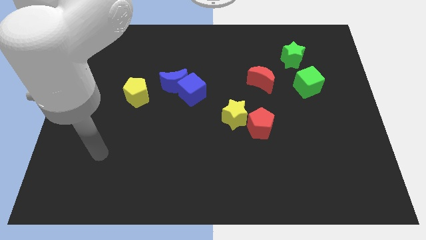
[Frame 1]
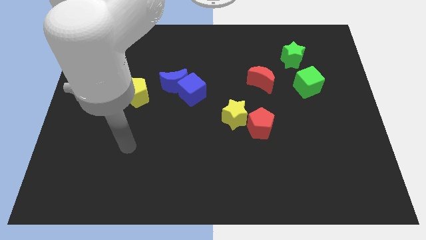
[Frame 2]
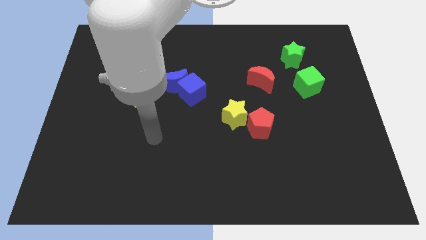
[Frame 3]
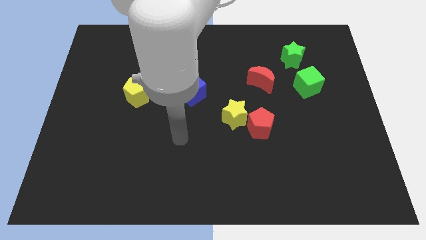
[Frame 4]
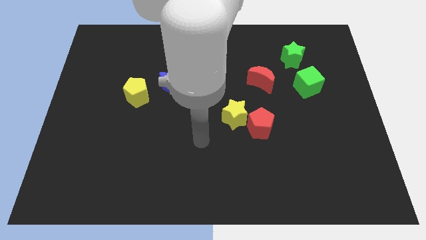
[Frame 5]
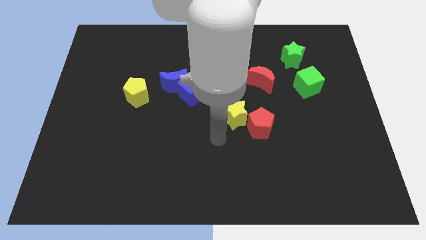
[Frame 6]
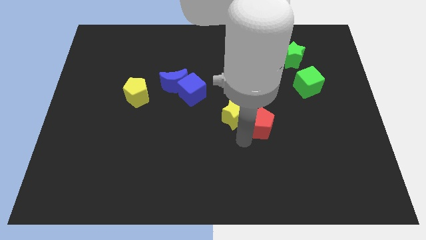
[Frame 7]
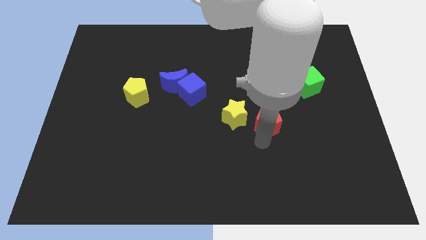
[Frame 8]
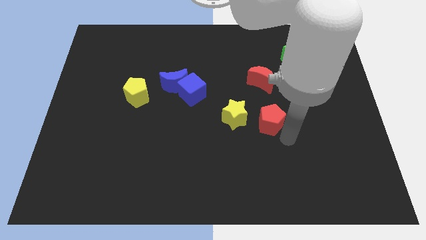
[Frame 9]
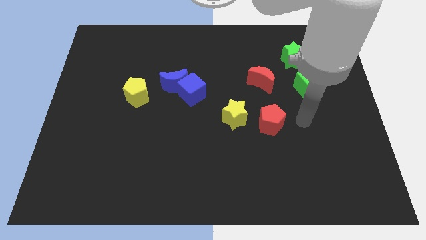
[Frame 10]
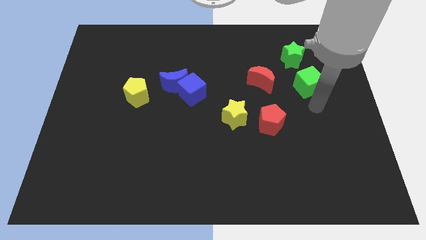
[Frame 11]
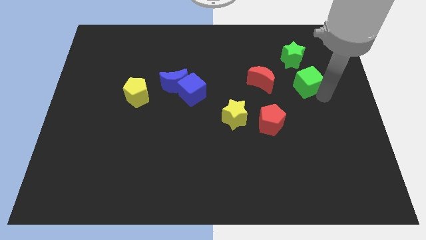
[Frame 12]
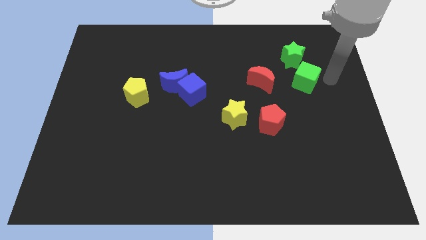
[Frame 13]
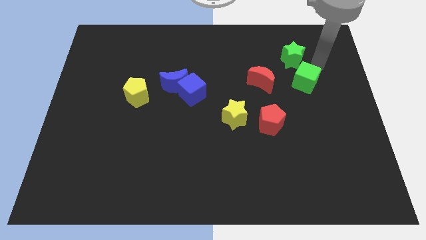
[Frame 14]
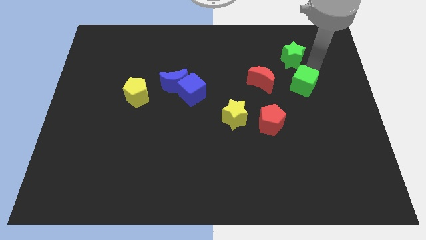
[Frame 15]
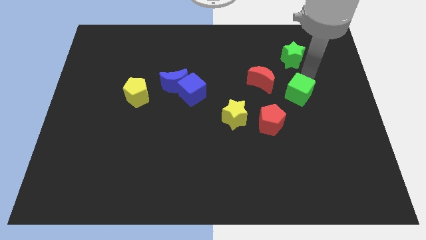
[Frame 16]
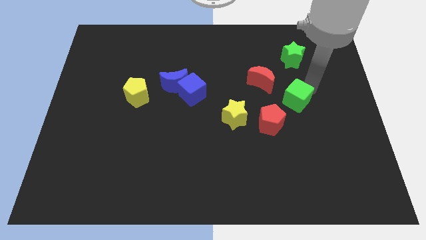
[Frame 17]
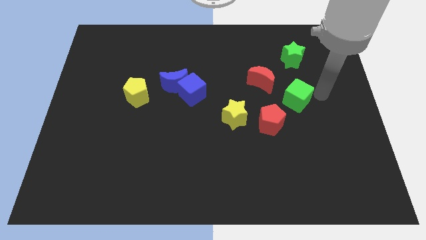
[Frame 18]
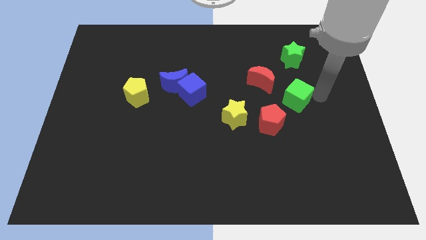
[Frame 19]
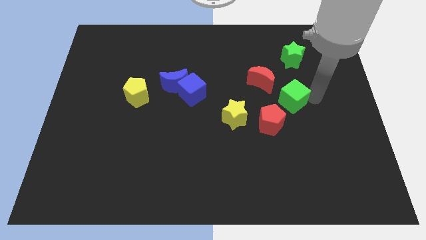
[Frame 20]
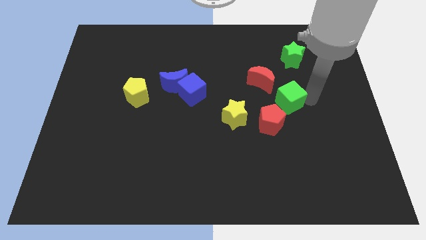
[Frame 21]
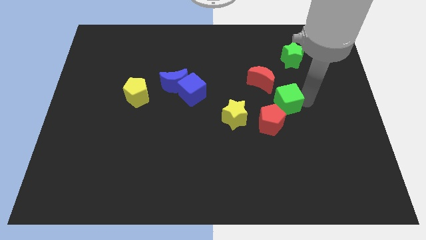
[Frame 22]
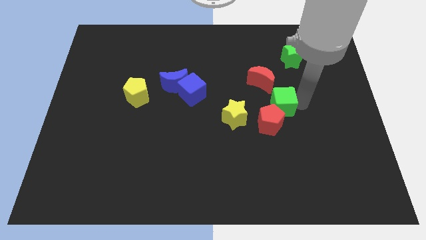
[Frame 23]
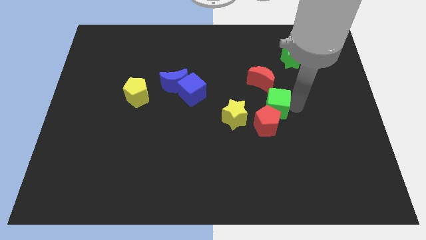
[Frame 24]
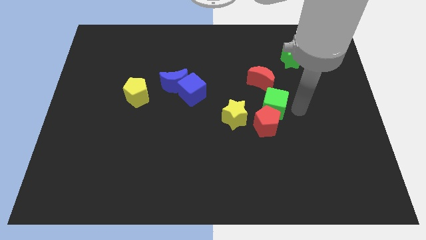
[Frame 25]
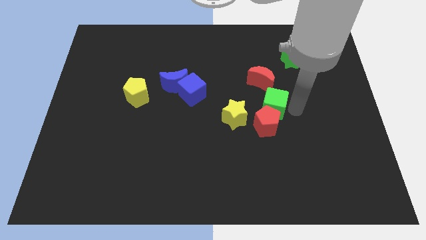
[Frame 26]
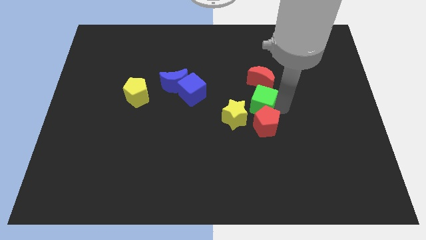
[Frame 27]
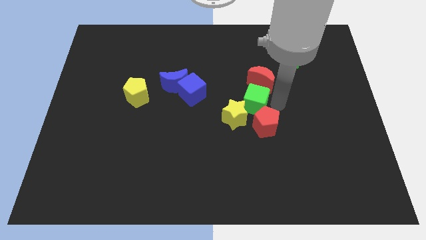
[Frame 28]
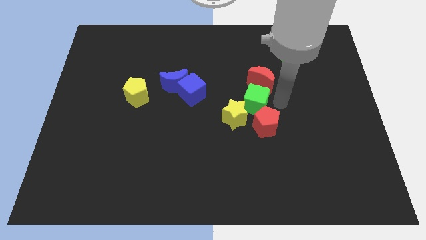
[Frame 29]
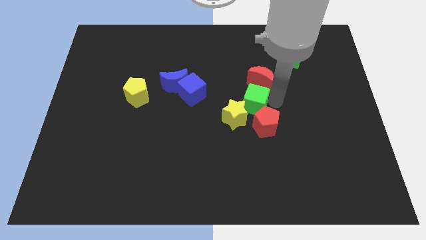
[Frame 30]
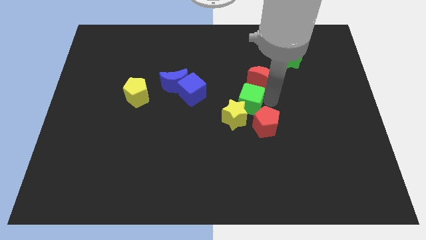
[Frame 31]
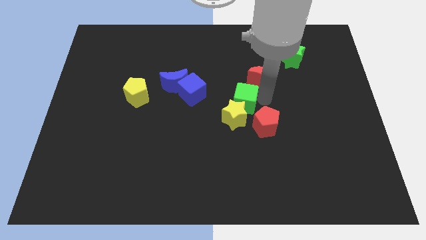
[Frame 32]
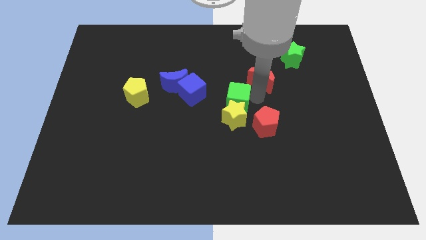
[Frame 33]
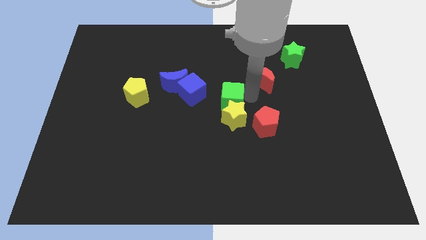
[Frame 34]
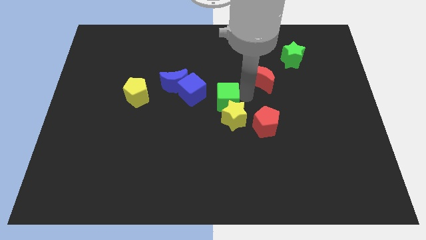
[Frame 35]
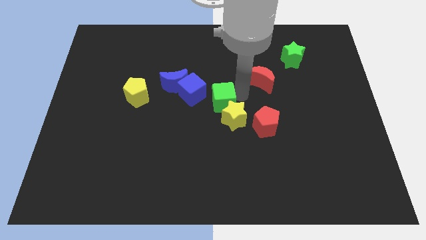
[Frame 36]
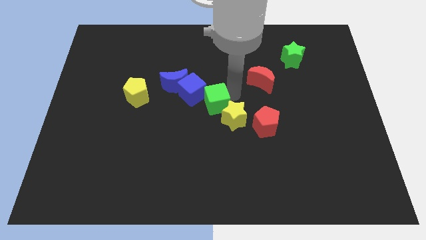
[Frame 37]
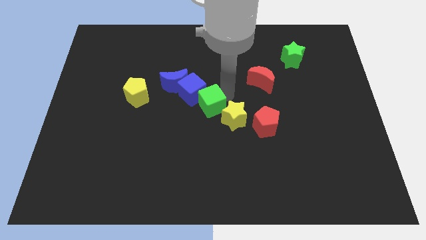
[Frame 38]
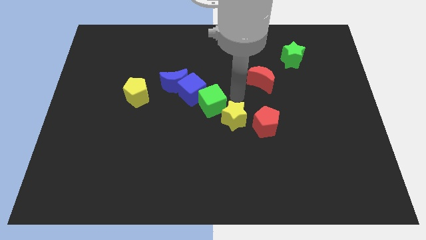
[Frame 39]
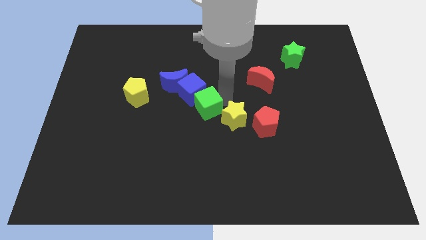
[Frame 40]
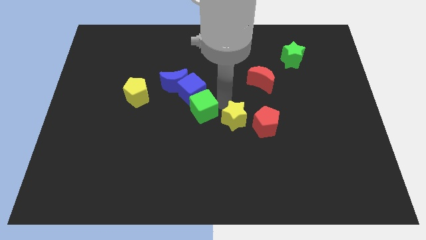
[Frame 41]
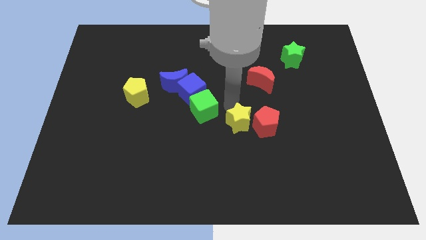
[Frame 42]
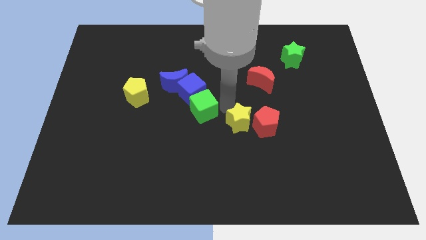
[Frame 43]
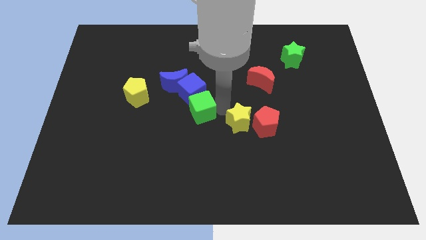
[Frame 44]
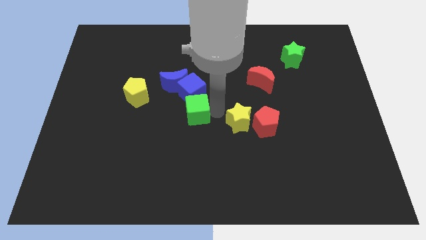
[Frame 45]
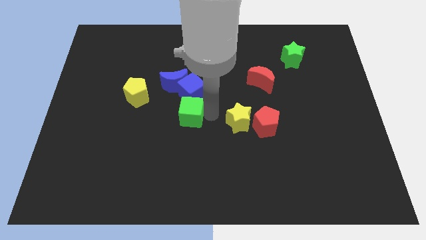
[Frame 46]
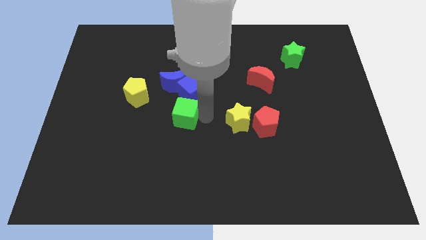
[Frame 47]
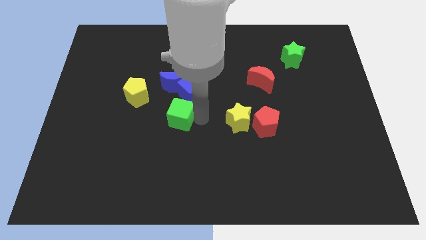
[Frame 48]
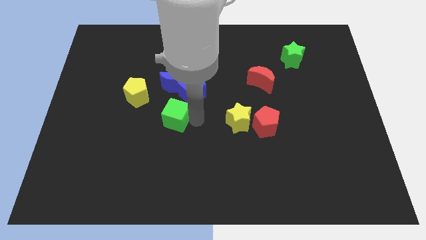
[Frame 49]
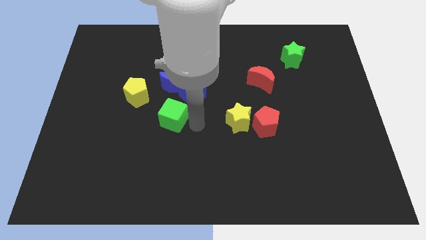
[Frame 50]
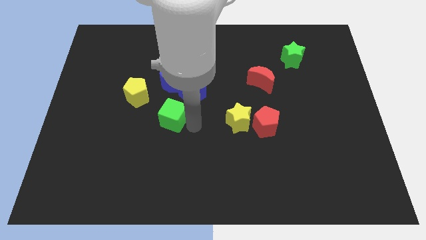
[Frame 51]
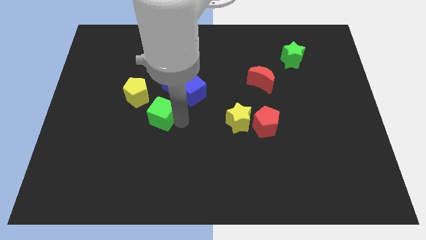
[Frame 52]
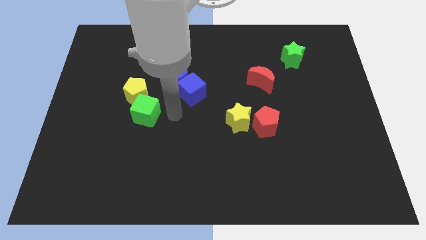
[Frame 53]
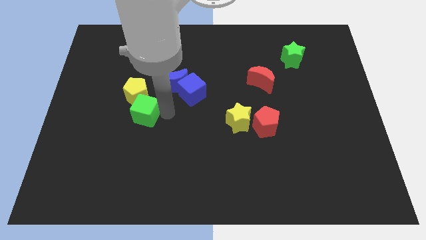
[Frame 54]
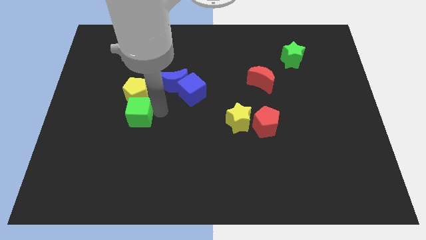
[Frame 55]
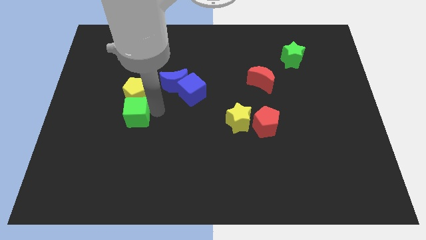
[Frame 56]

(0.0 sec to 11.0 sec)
slide the green cube diagonally down and to the left of the yellow pentagon

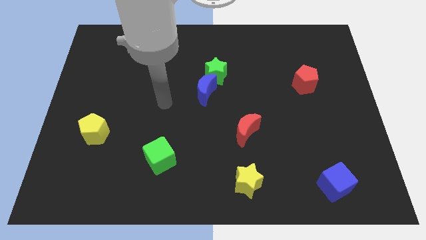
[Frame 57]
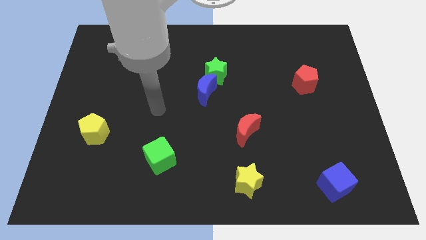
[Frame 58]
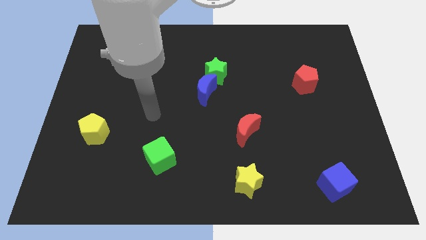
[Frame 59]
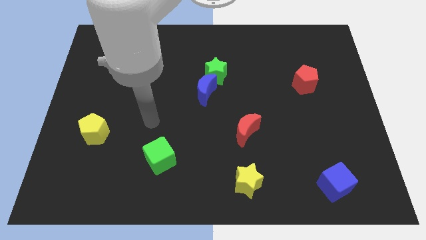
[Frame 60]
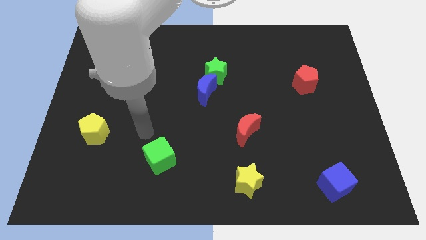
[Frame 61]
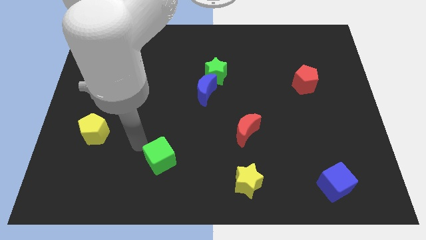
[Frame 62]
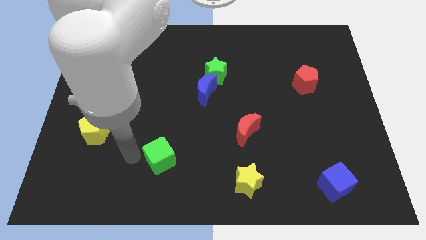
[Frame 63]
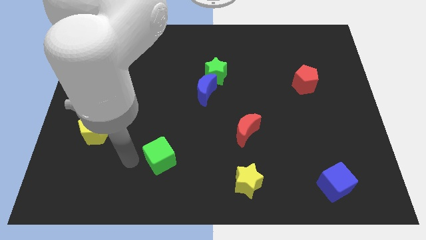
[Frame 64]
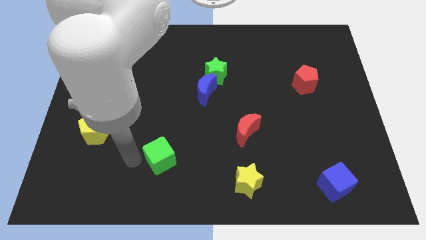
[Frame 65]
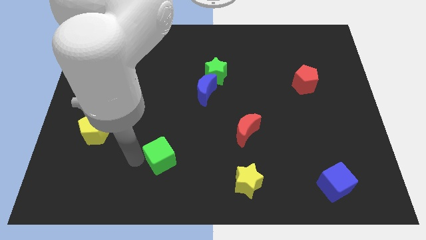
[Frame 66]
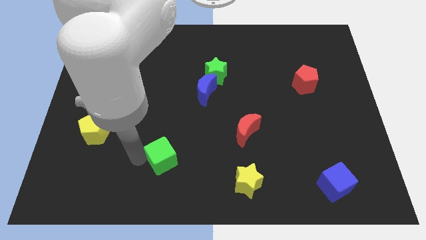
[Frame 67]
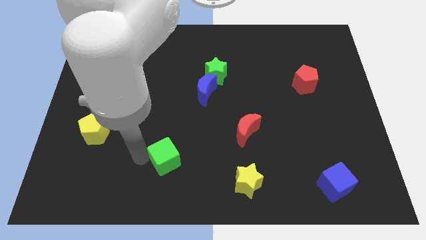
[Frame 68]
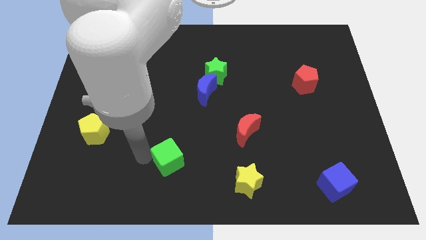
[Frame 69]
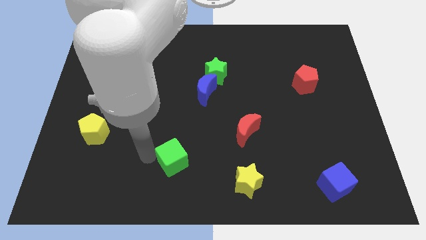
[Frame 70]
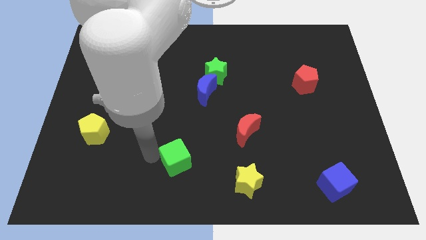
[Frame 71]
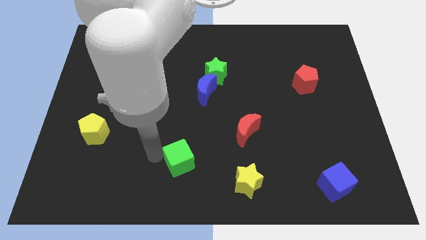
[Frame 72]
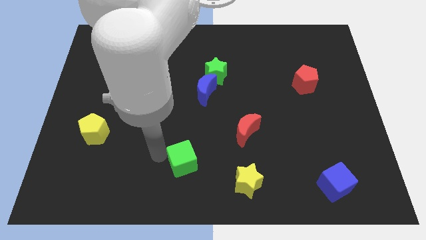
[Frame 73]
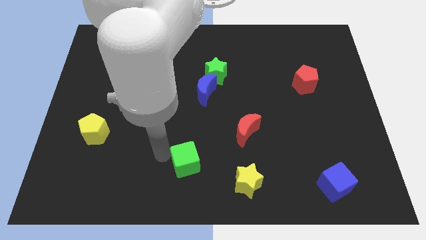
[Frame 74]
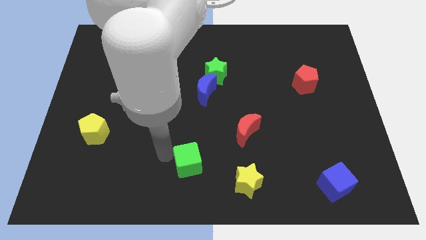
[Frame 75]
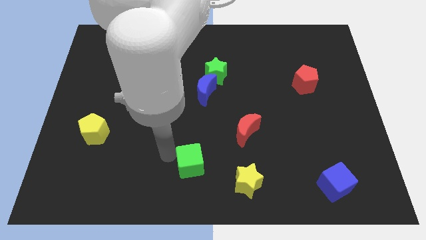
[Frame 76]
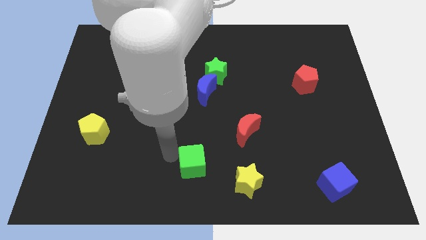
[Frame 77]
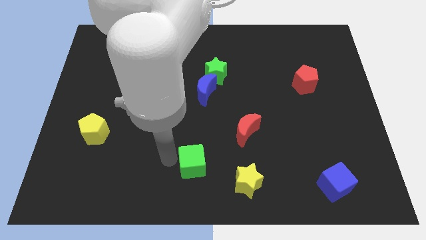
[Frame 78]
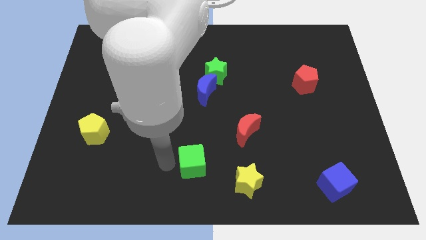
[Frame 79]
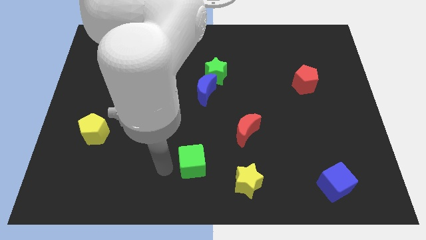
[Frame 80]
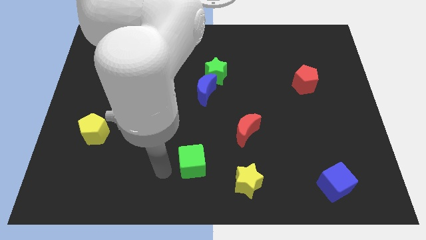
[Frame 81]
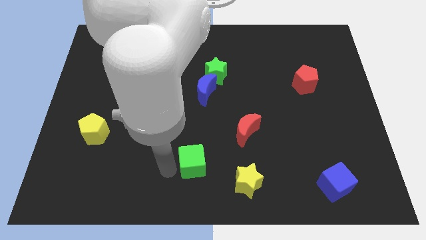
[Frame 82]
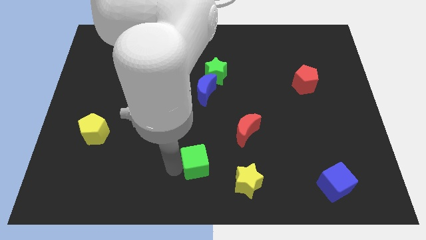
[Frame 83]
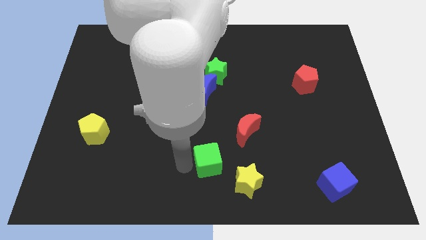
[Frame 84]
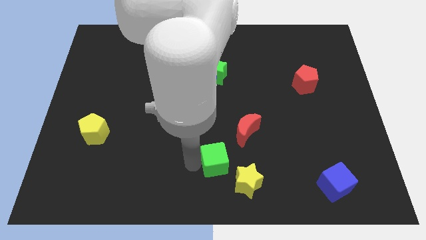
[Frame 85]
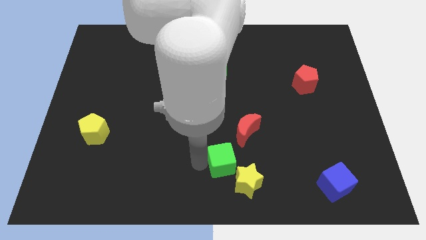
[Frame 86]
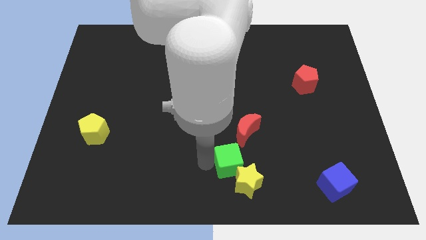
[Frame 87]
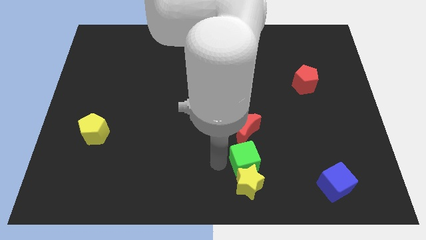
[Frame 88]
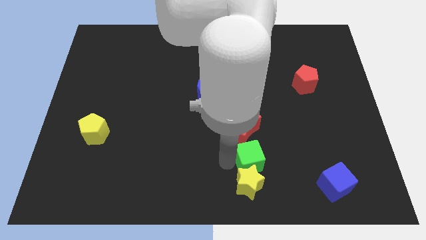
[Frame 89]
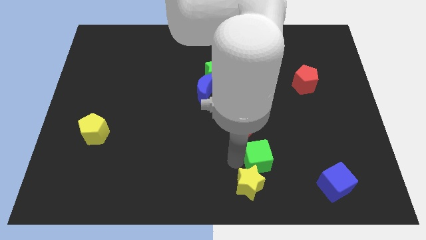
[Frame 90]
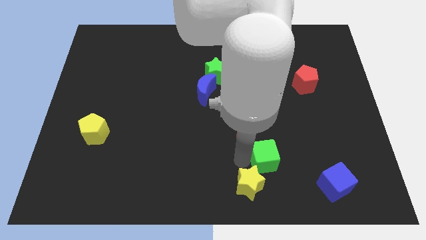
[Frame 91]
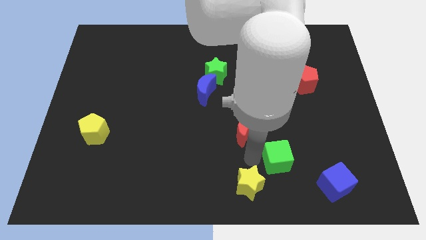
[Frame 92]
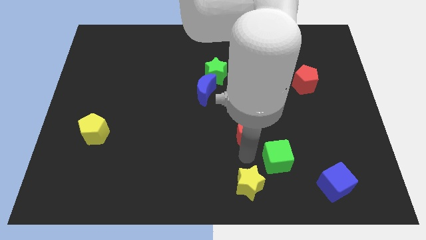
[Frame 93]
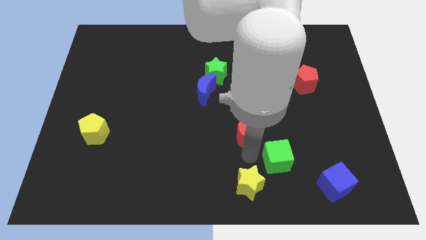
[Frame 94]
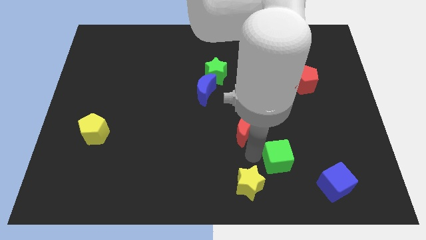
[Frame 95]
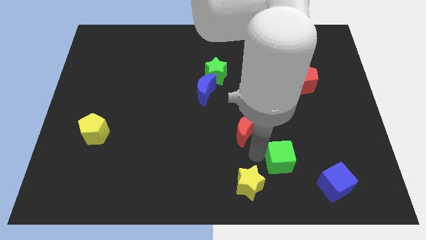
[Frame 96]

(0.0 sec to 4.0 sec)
slide the green cube diagonally up and to the left of the blue cube
